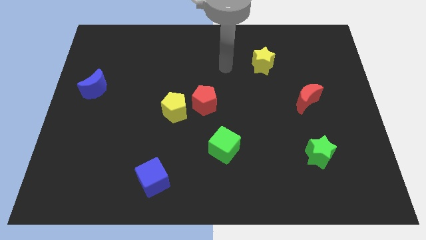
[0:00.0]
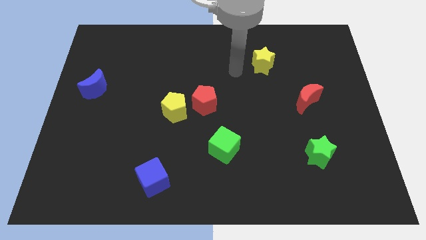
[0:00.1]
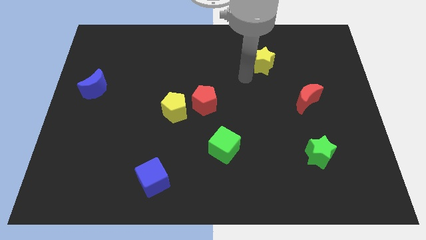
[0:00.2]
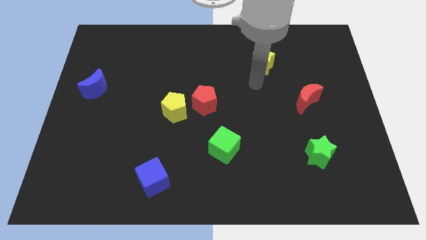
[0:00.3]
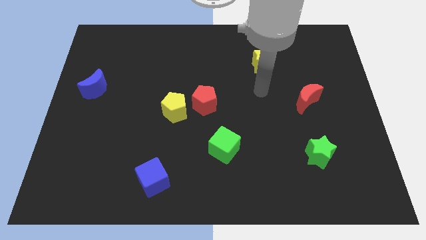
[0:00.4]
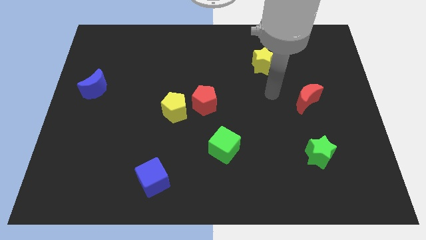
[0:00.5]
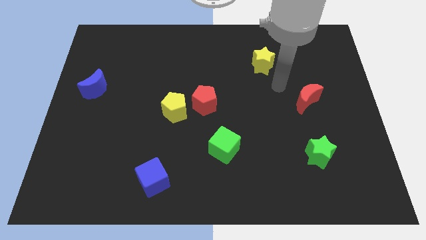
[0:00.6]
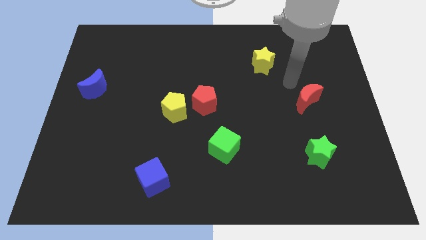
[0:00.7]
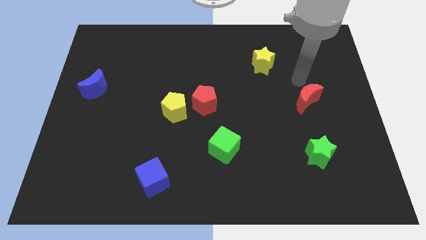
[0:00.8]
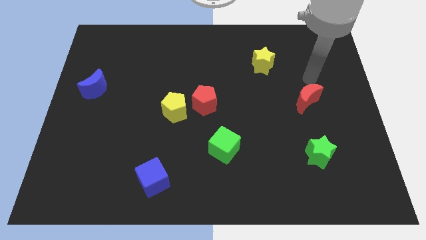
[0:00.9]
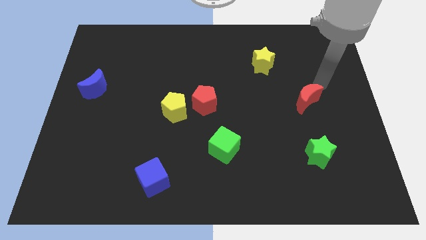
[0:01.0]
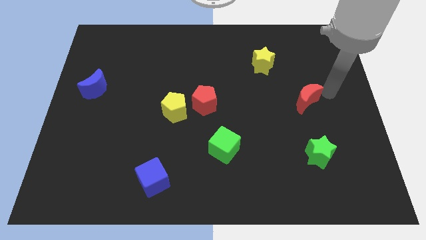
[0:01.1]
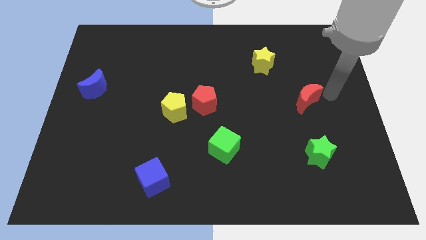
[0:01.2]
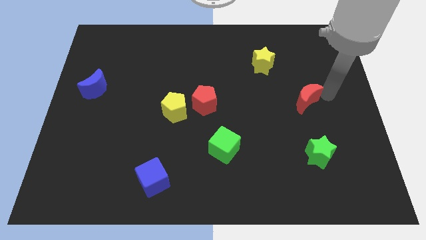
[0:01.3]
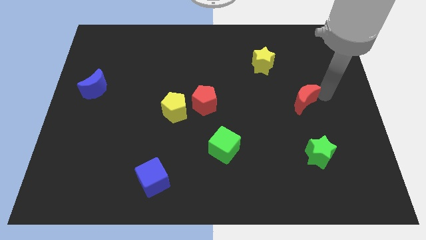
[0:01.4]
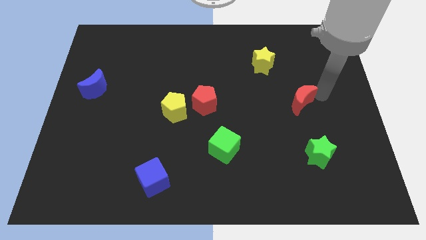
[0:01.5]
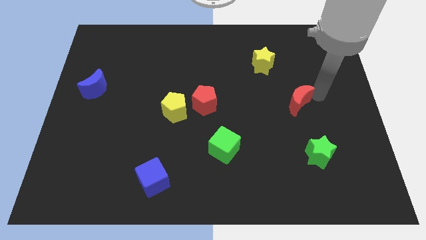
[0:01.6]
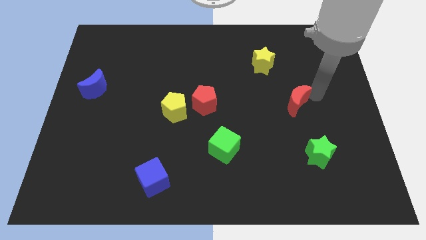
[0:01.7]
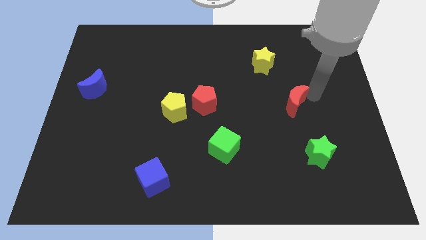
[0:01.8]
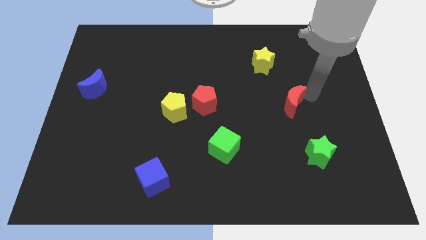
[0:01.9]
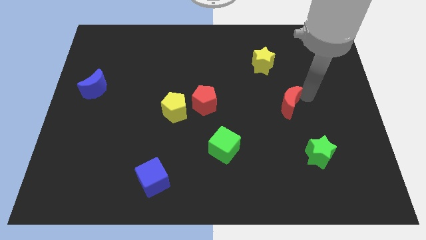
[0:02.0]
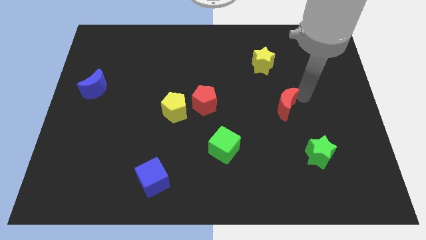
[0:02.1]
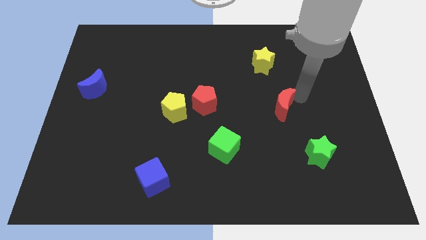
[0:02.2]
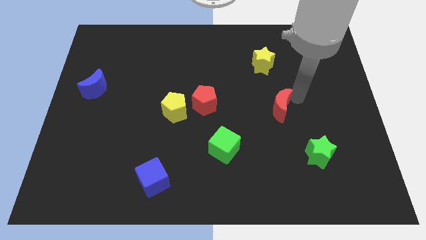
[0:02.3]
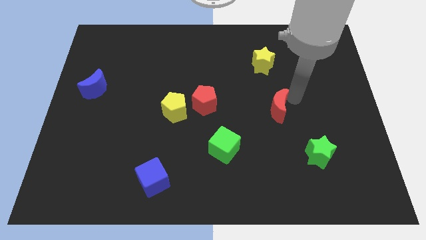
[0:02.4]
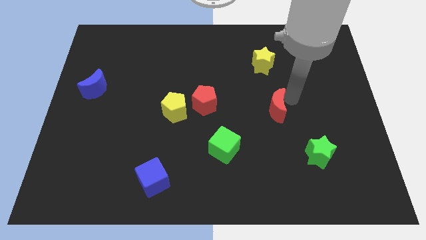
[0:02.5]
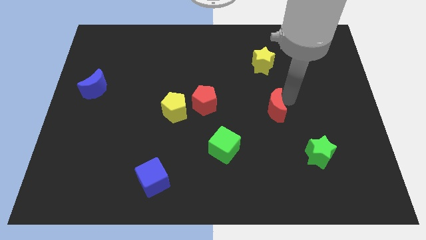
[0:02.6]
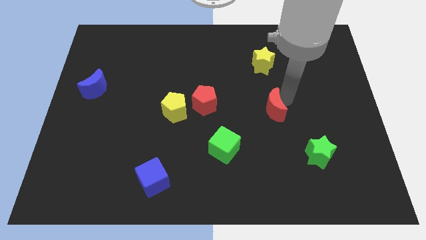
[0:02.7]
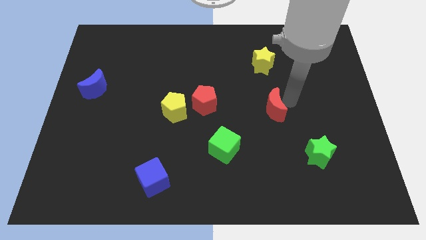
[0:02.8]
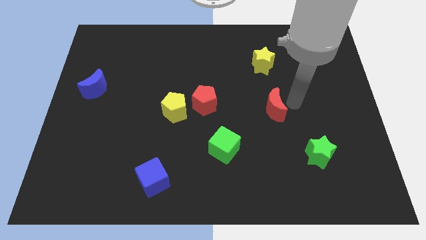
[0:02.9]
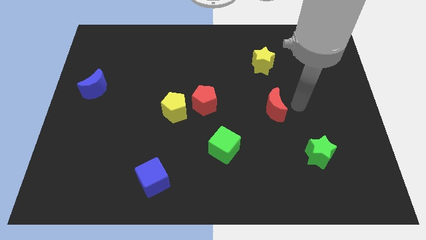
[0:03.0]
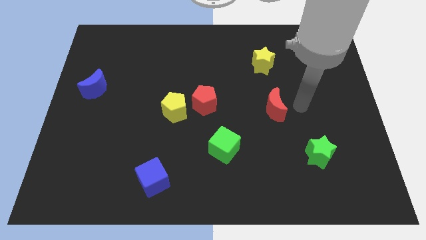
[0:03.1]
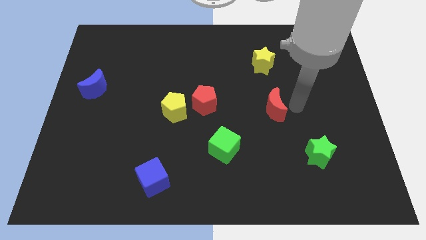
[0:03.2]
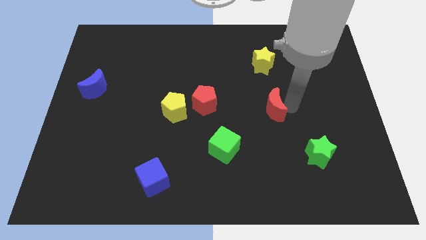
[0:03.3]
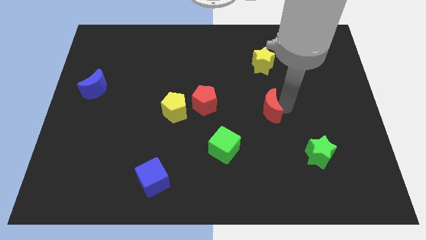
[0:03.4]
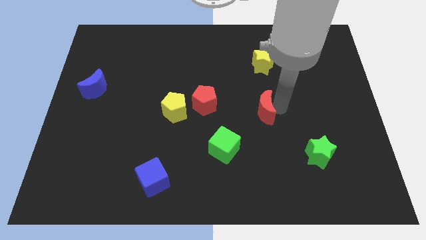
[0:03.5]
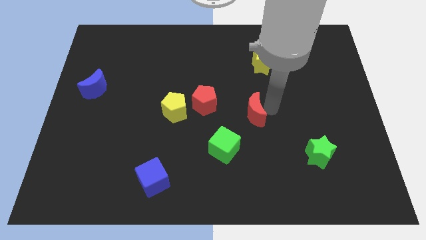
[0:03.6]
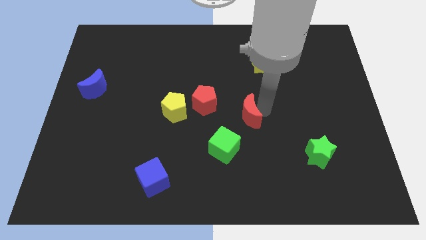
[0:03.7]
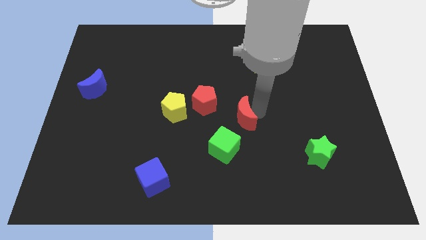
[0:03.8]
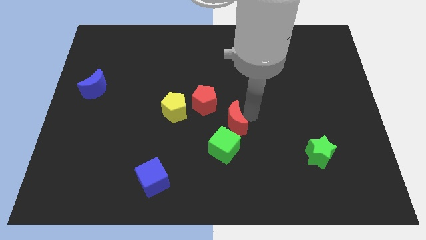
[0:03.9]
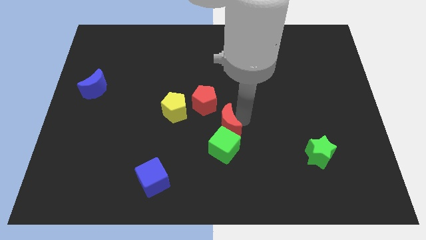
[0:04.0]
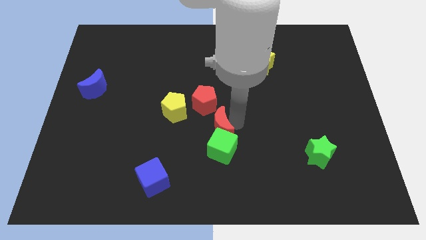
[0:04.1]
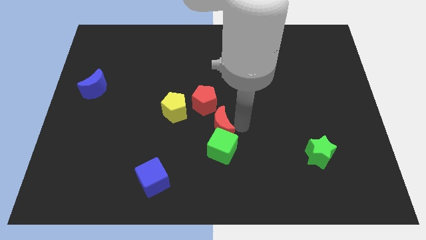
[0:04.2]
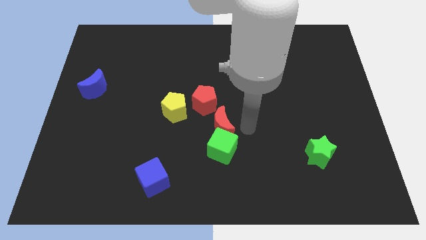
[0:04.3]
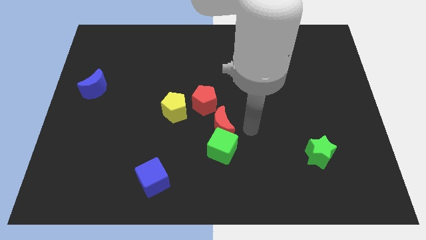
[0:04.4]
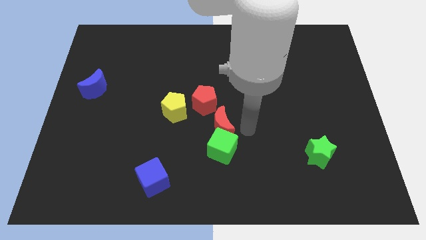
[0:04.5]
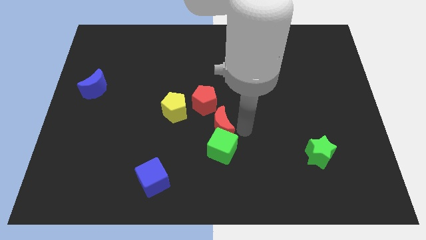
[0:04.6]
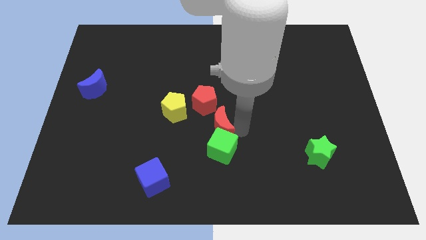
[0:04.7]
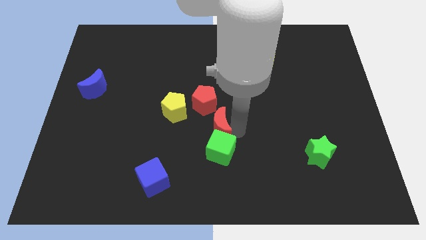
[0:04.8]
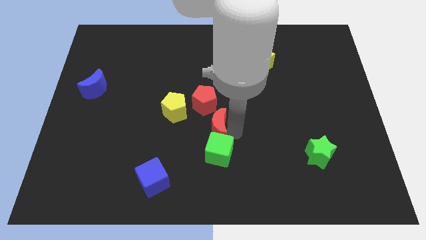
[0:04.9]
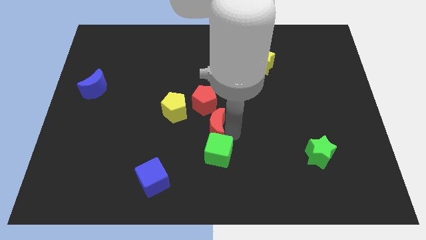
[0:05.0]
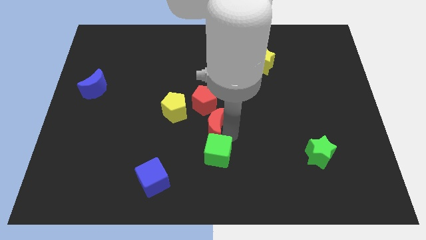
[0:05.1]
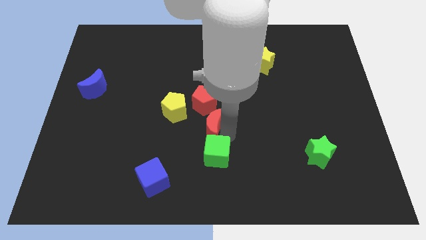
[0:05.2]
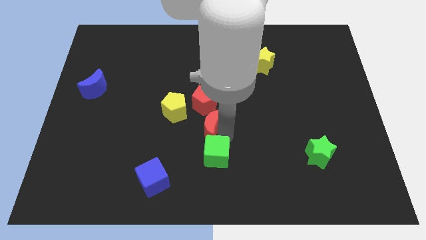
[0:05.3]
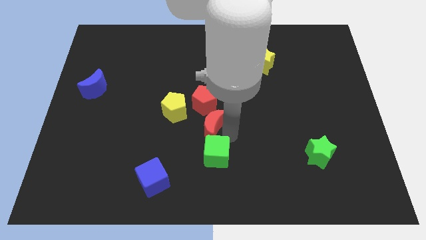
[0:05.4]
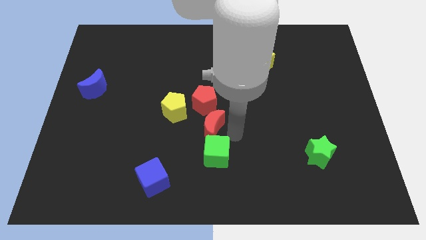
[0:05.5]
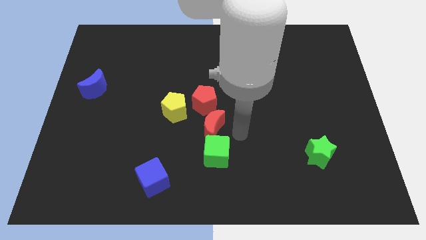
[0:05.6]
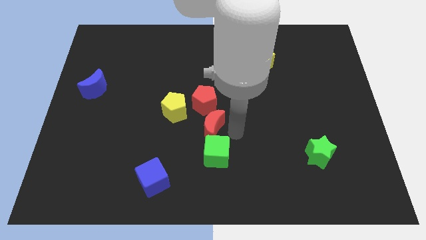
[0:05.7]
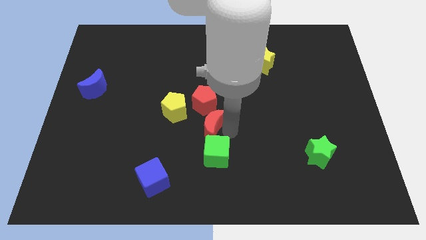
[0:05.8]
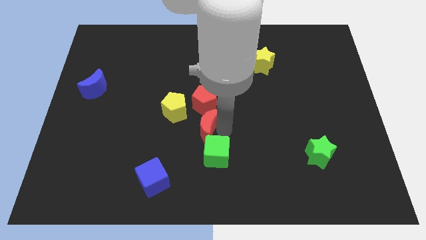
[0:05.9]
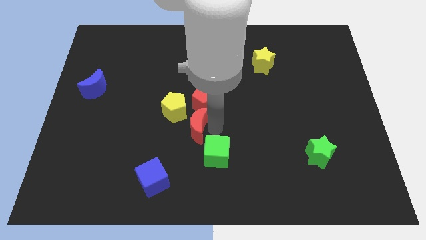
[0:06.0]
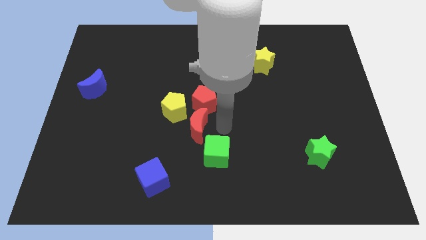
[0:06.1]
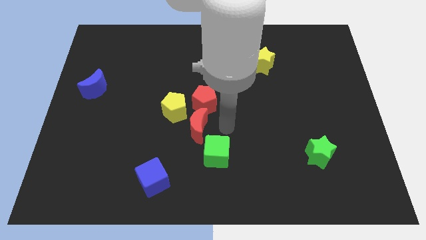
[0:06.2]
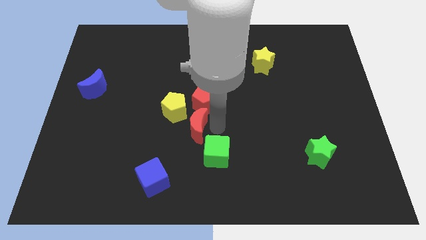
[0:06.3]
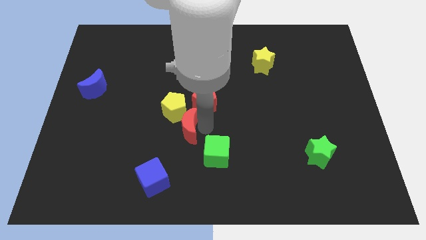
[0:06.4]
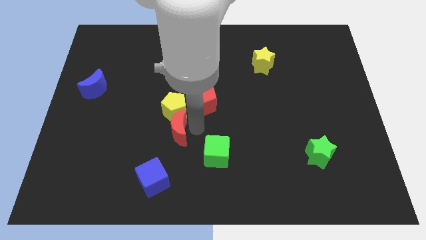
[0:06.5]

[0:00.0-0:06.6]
push the red moon diagonally down and to the left of the yellow pentagon

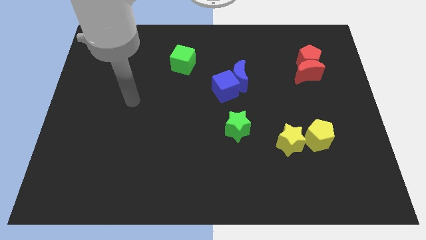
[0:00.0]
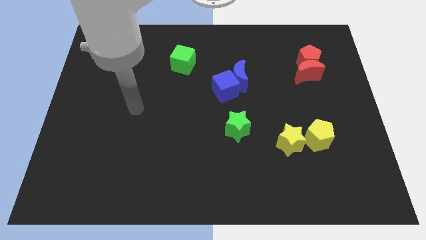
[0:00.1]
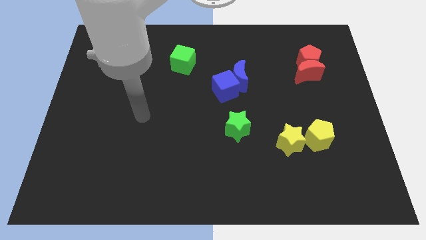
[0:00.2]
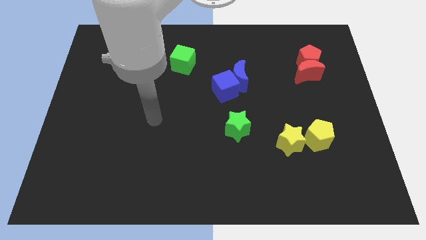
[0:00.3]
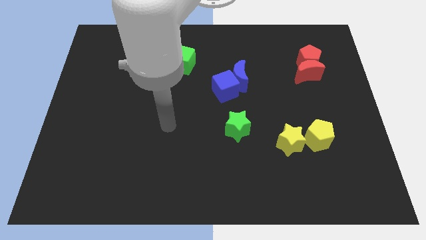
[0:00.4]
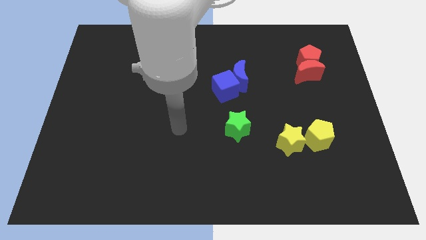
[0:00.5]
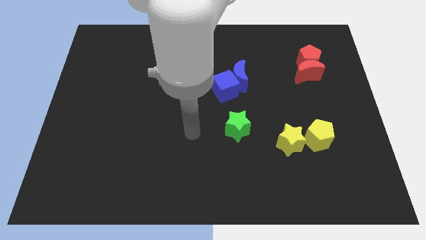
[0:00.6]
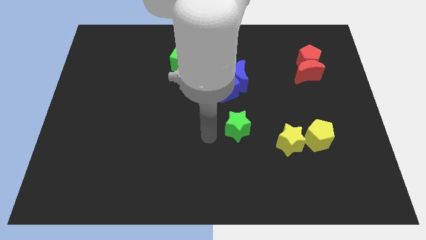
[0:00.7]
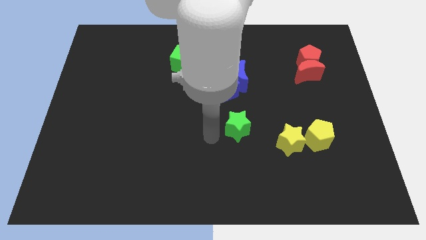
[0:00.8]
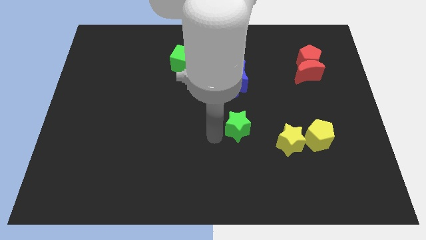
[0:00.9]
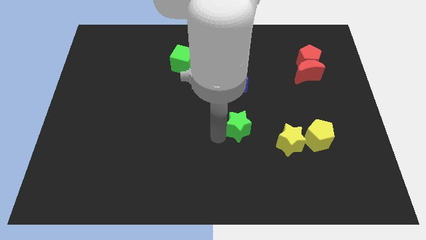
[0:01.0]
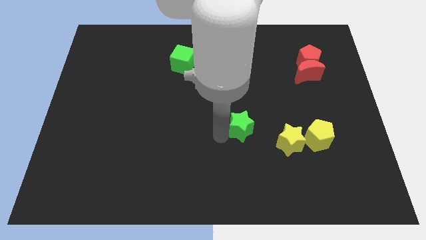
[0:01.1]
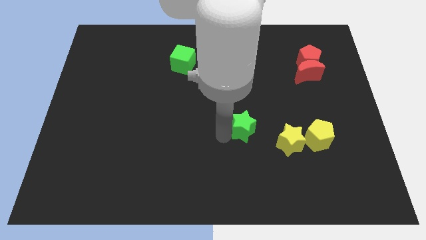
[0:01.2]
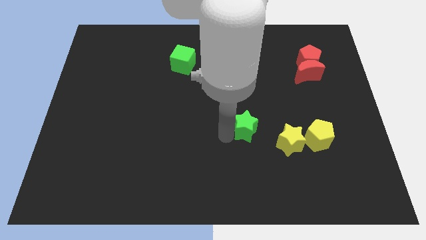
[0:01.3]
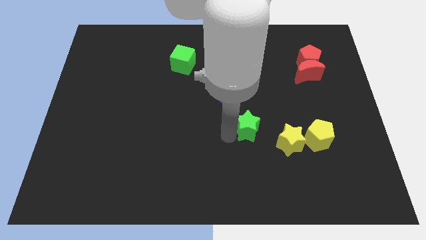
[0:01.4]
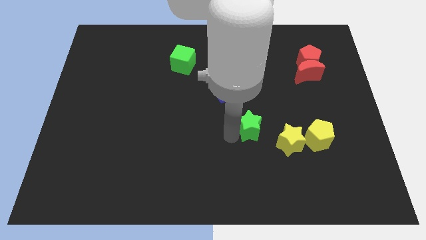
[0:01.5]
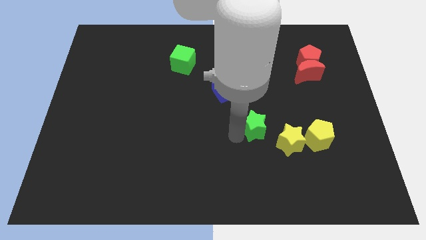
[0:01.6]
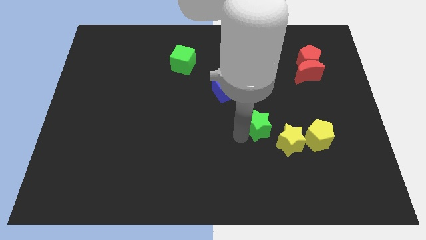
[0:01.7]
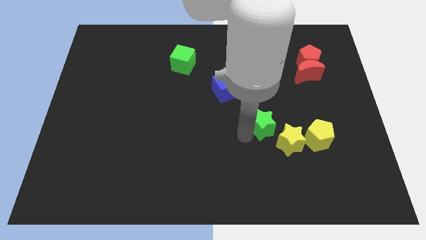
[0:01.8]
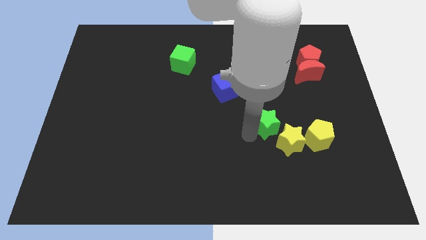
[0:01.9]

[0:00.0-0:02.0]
slide the green star to the top of the yellow star
